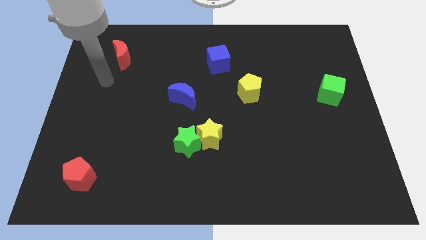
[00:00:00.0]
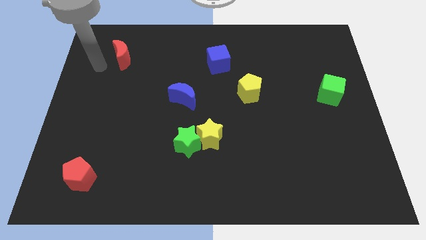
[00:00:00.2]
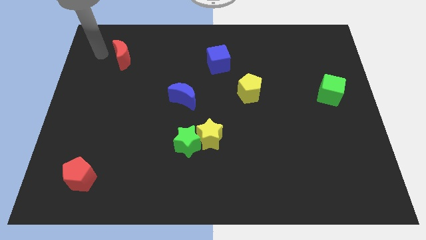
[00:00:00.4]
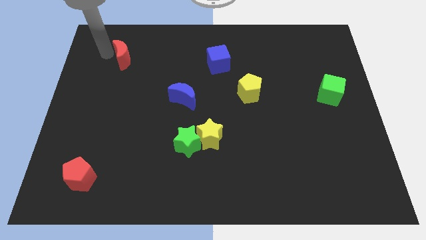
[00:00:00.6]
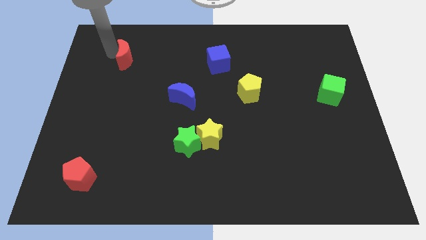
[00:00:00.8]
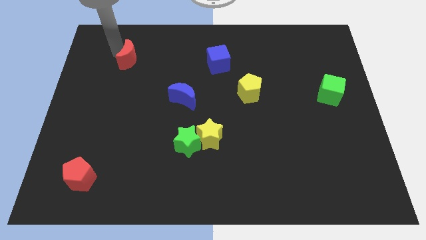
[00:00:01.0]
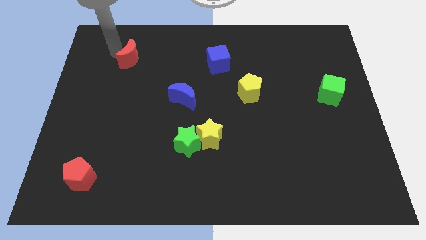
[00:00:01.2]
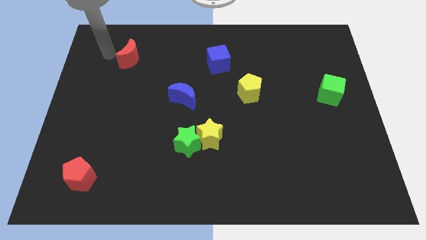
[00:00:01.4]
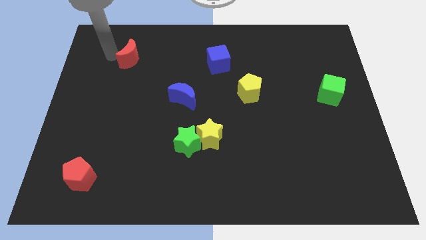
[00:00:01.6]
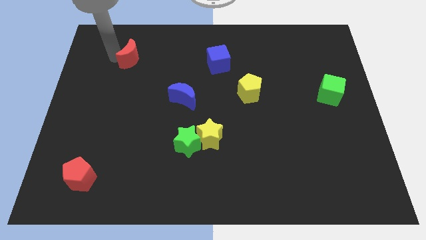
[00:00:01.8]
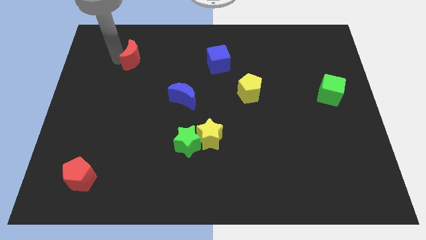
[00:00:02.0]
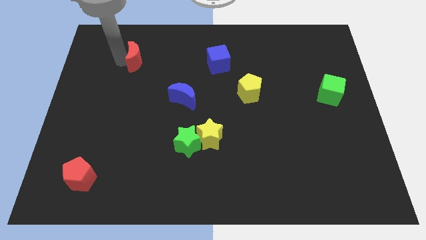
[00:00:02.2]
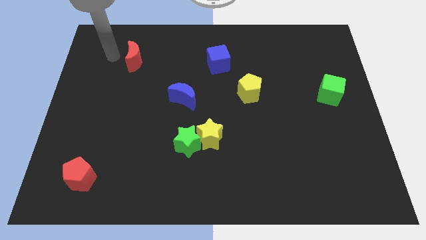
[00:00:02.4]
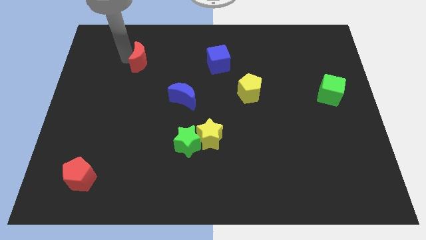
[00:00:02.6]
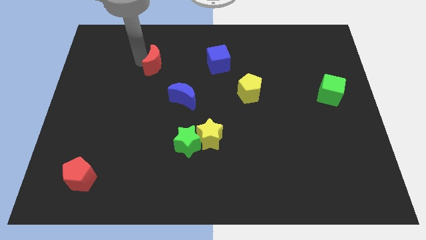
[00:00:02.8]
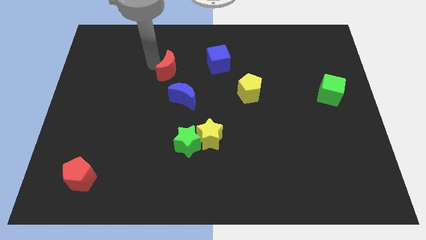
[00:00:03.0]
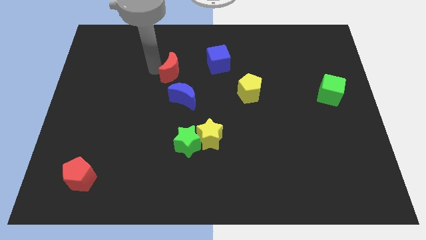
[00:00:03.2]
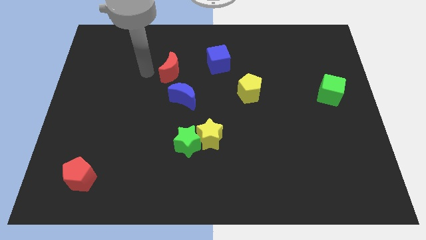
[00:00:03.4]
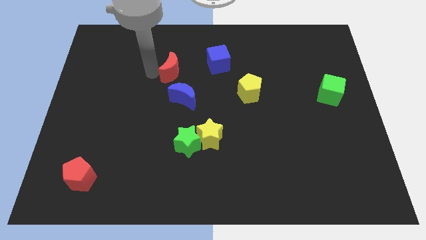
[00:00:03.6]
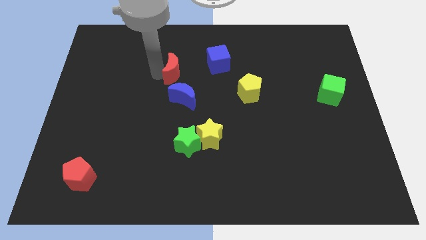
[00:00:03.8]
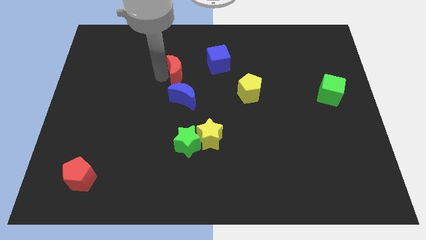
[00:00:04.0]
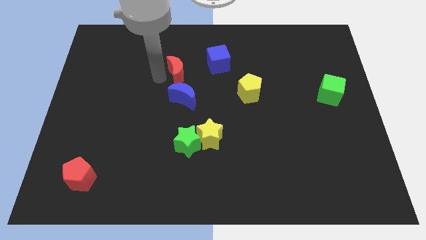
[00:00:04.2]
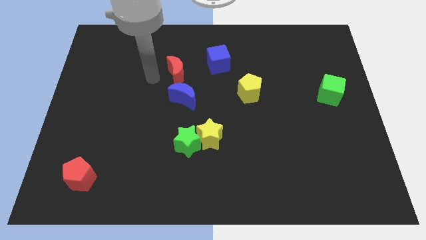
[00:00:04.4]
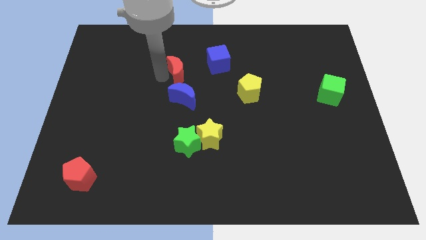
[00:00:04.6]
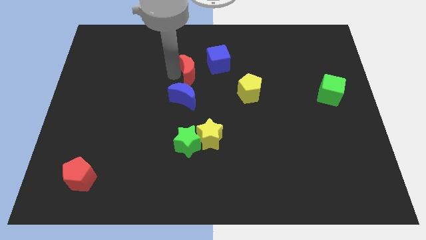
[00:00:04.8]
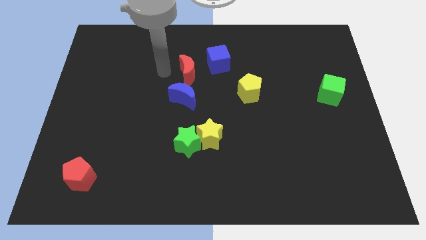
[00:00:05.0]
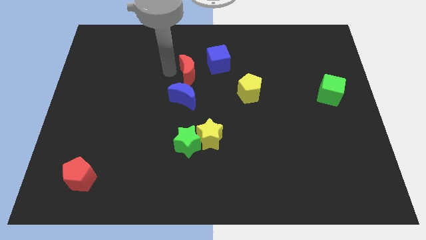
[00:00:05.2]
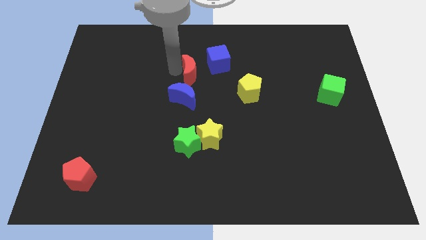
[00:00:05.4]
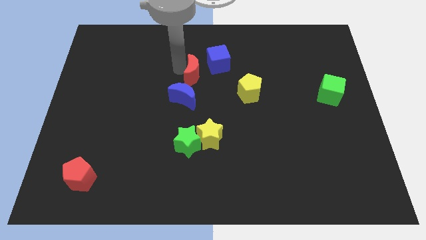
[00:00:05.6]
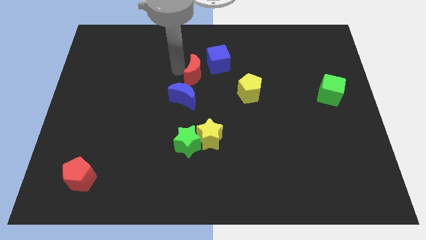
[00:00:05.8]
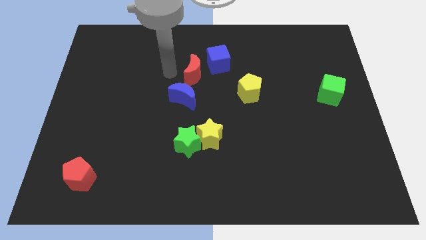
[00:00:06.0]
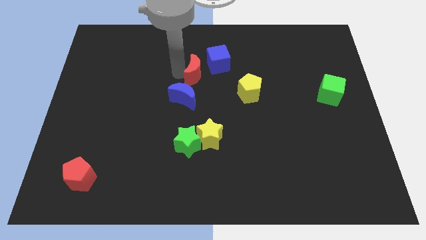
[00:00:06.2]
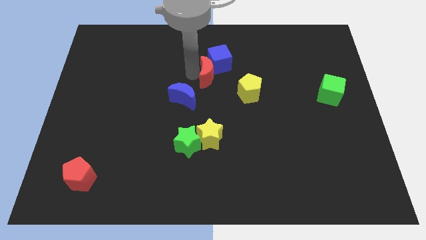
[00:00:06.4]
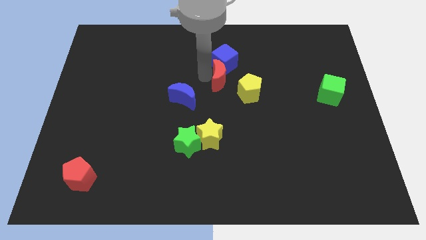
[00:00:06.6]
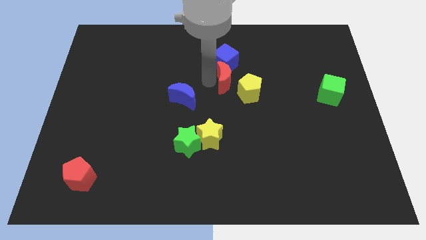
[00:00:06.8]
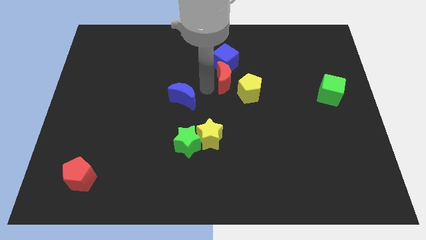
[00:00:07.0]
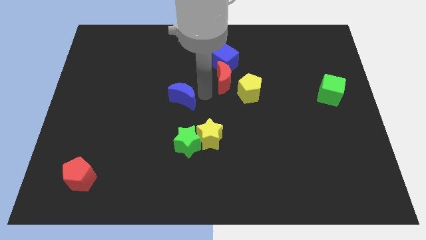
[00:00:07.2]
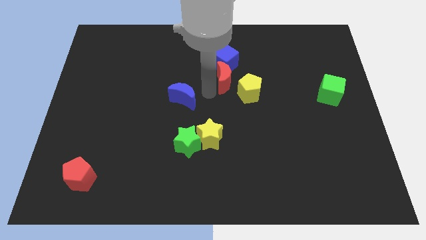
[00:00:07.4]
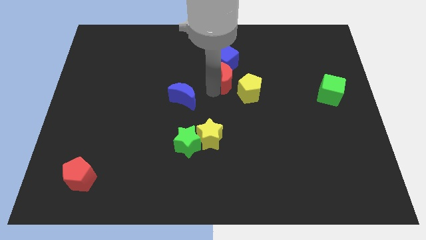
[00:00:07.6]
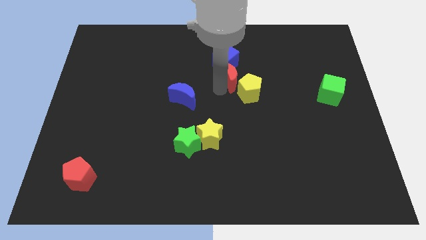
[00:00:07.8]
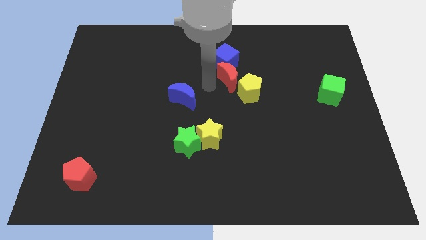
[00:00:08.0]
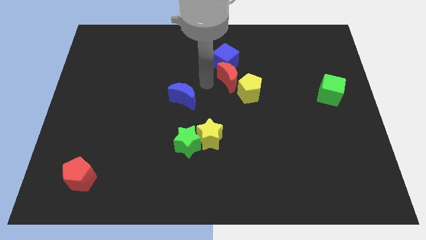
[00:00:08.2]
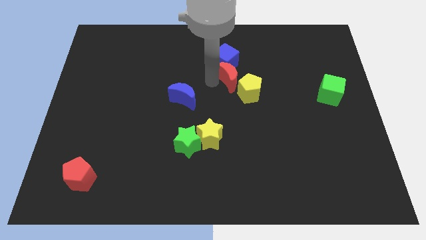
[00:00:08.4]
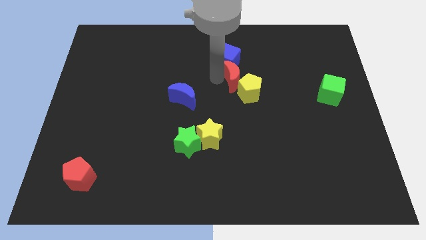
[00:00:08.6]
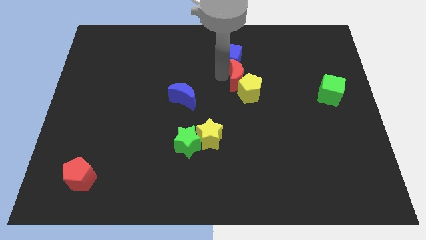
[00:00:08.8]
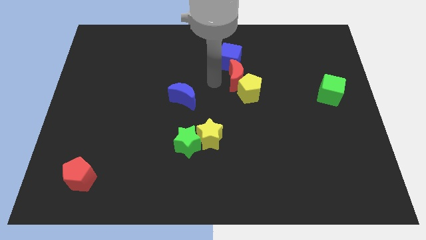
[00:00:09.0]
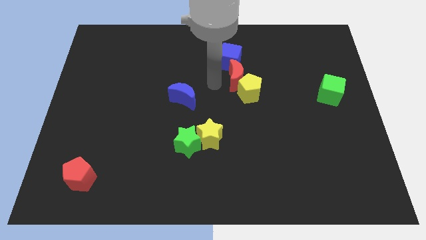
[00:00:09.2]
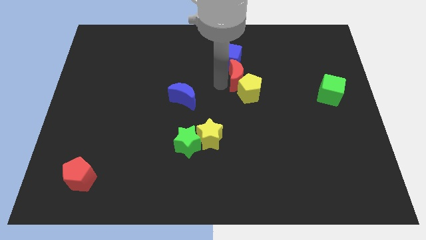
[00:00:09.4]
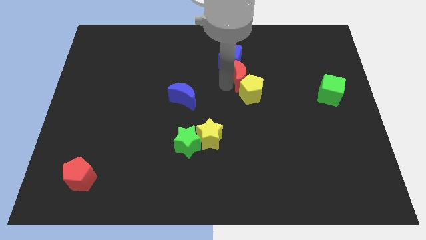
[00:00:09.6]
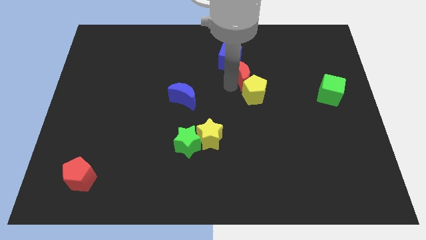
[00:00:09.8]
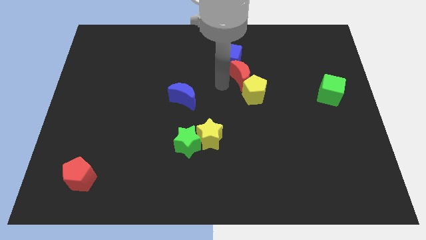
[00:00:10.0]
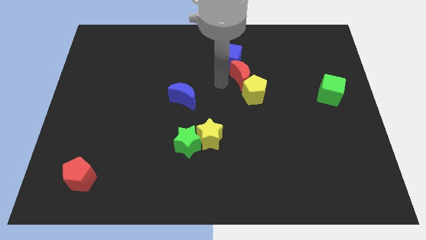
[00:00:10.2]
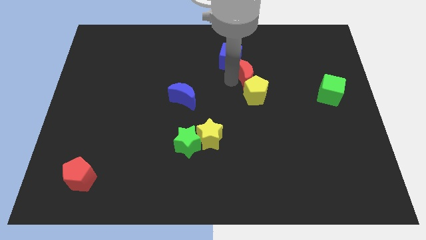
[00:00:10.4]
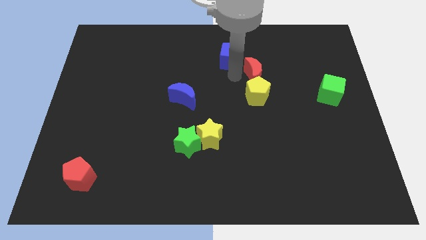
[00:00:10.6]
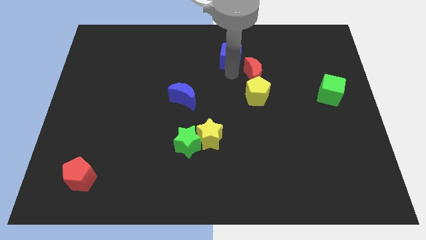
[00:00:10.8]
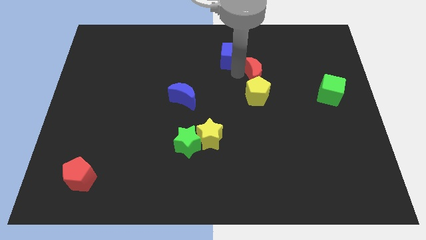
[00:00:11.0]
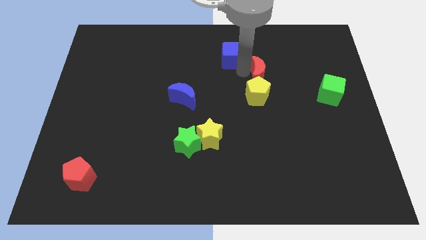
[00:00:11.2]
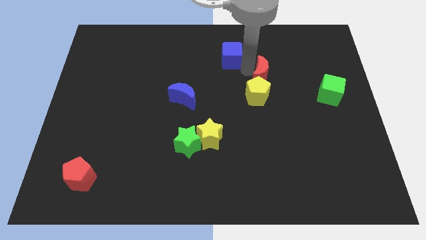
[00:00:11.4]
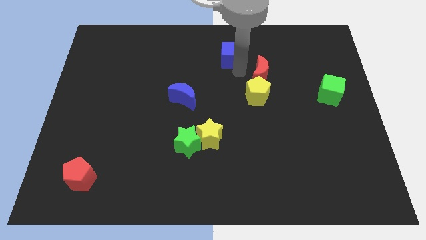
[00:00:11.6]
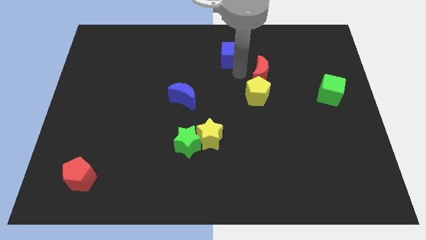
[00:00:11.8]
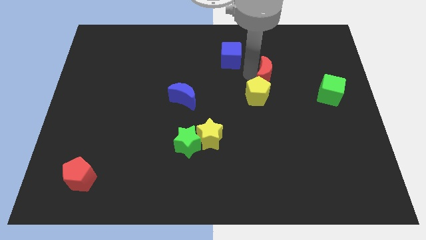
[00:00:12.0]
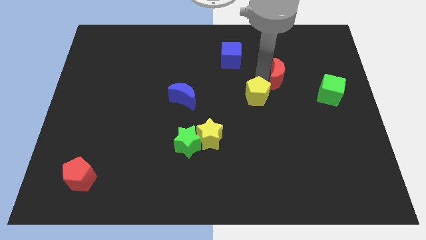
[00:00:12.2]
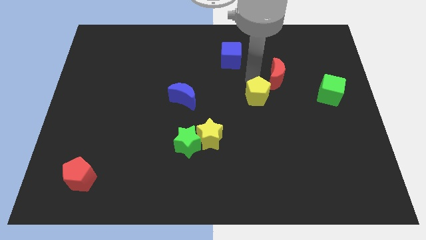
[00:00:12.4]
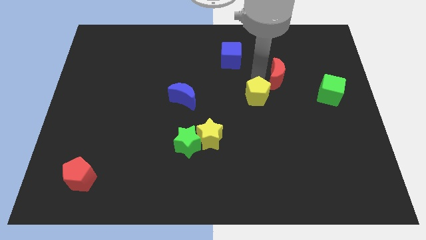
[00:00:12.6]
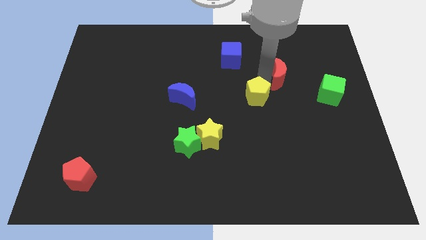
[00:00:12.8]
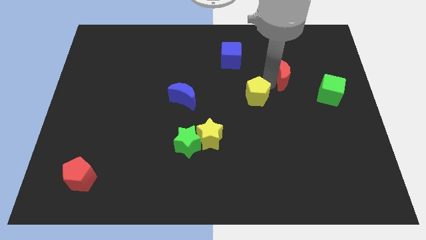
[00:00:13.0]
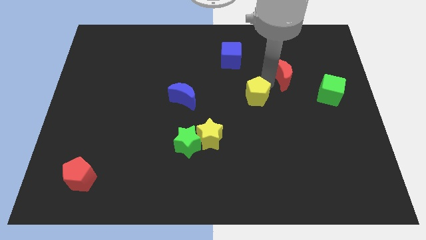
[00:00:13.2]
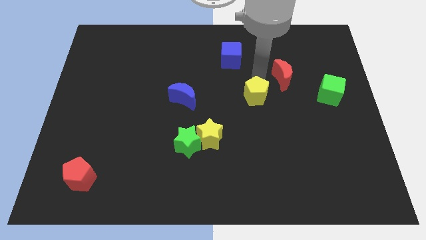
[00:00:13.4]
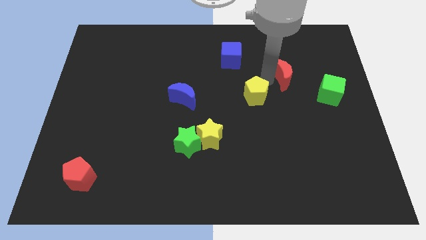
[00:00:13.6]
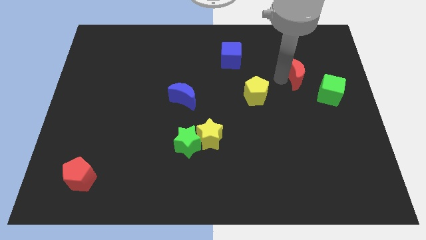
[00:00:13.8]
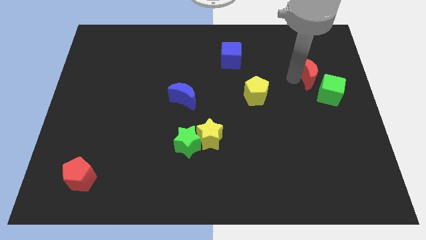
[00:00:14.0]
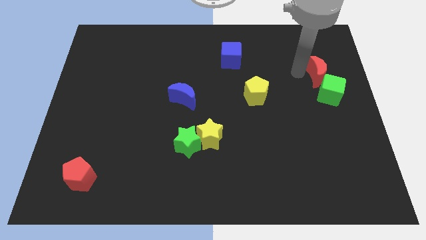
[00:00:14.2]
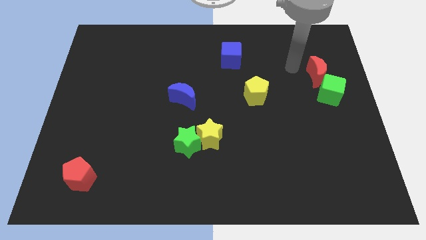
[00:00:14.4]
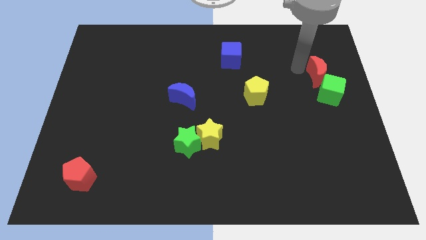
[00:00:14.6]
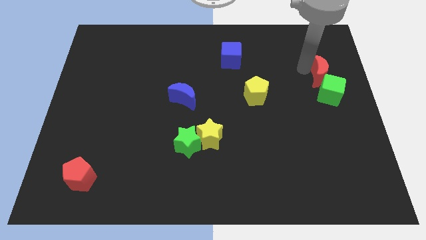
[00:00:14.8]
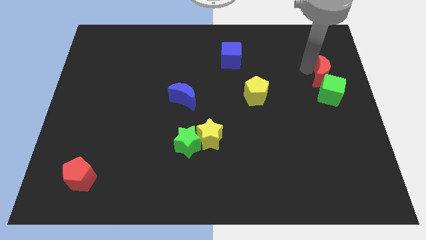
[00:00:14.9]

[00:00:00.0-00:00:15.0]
slide the red moon to the right side of the board
